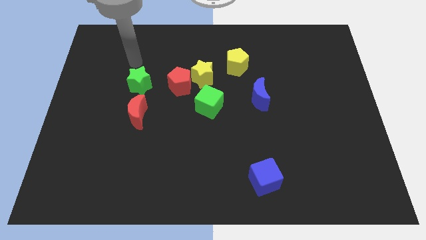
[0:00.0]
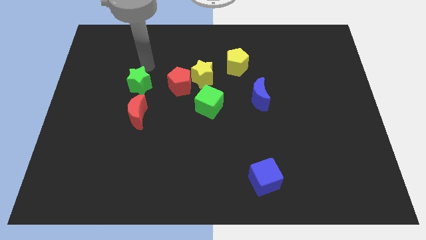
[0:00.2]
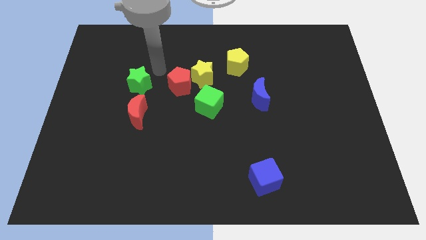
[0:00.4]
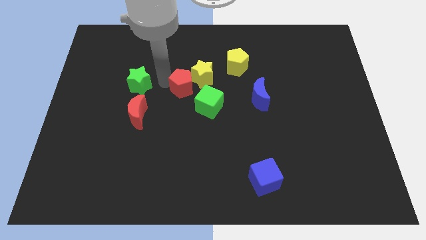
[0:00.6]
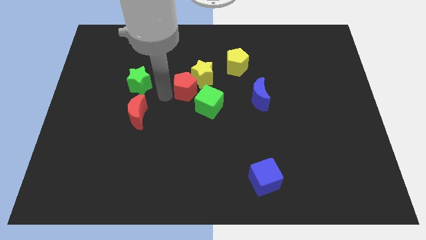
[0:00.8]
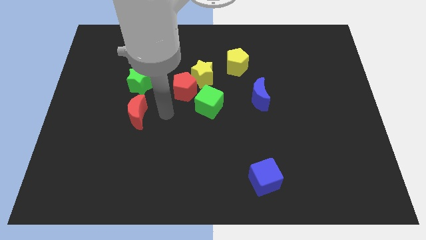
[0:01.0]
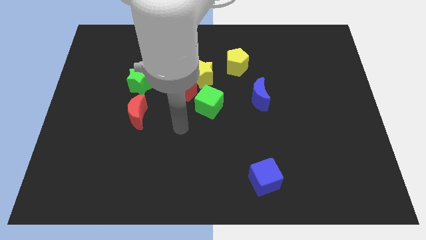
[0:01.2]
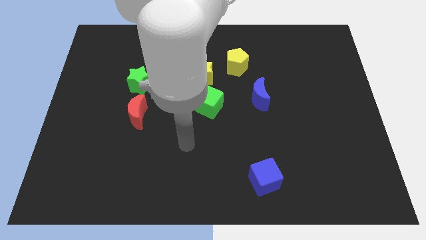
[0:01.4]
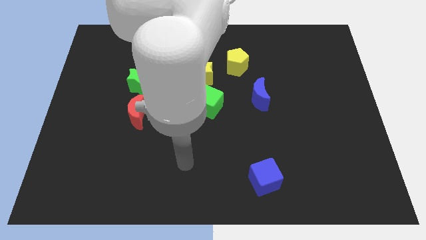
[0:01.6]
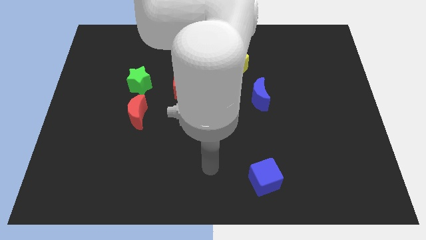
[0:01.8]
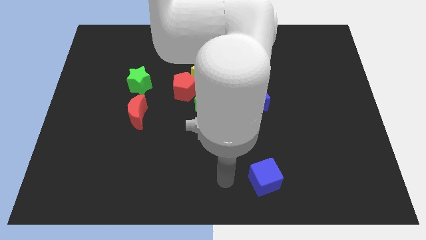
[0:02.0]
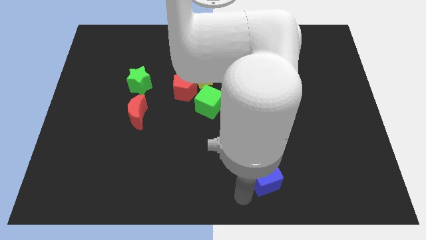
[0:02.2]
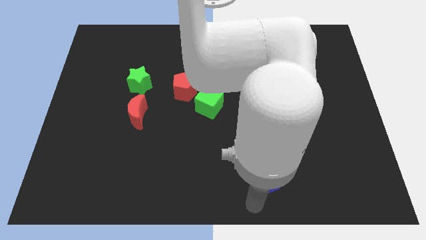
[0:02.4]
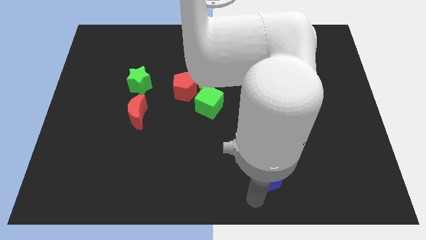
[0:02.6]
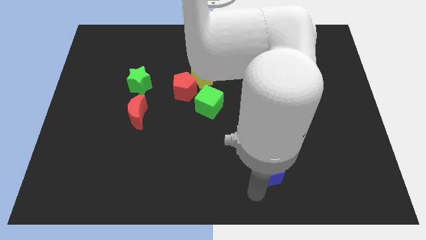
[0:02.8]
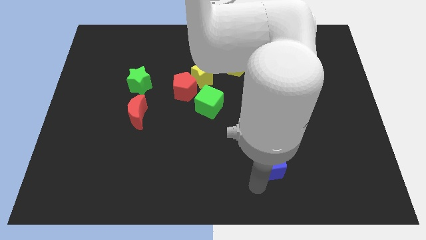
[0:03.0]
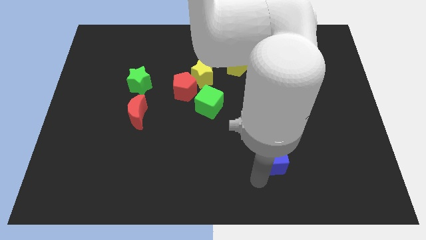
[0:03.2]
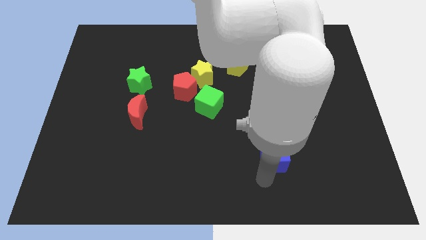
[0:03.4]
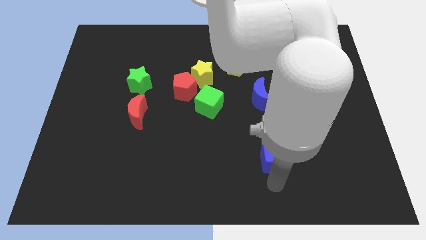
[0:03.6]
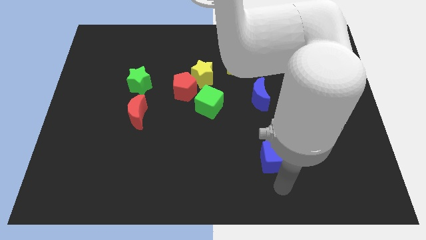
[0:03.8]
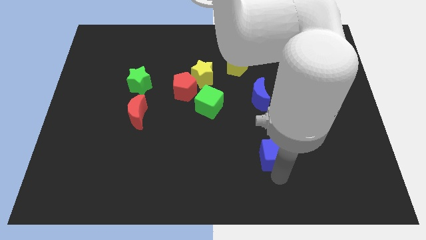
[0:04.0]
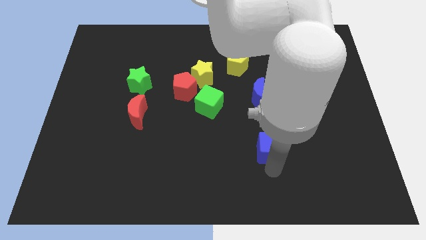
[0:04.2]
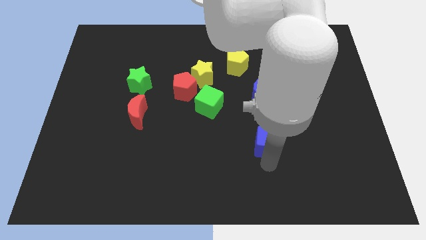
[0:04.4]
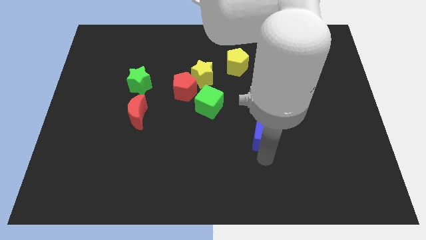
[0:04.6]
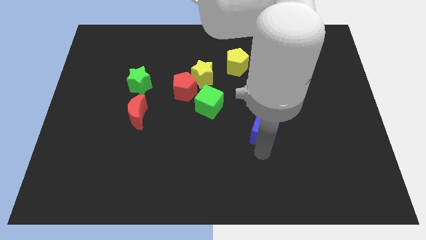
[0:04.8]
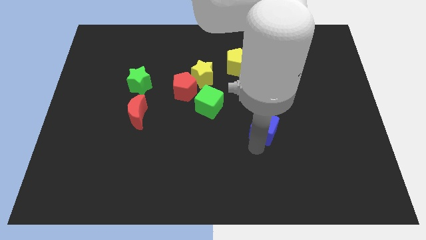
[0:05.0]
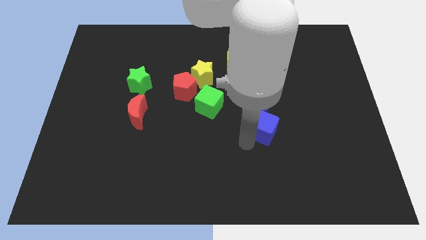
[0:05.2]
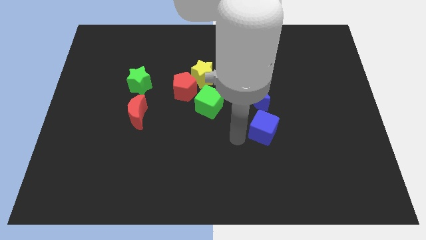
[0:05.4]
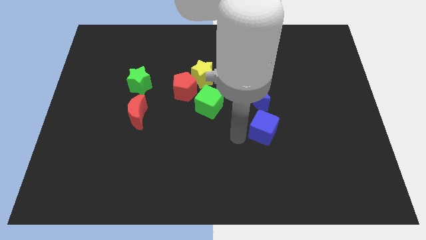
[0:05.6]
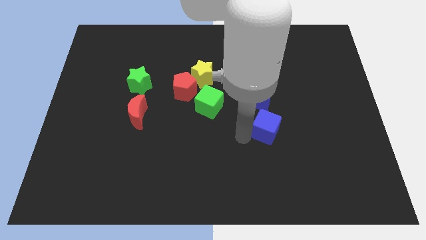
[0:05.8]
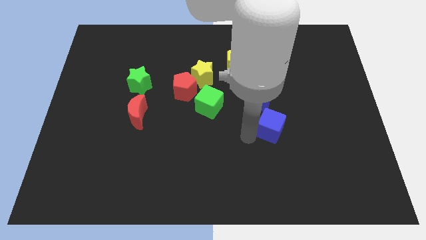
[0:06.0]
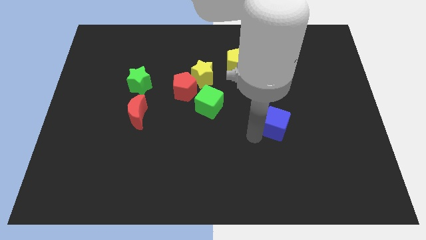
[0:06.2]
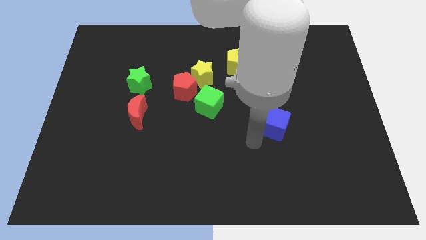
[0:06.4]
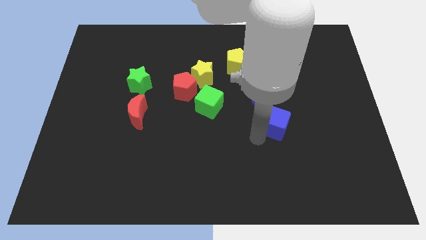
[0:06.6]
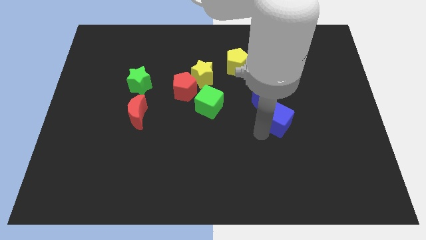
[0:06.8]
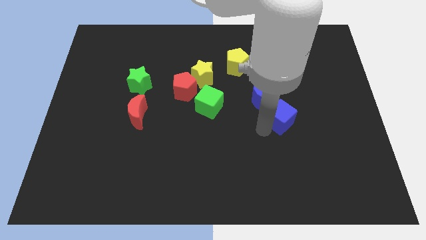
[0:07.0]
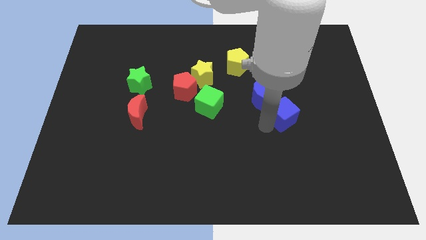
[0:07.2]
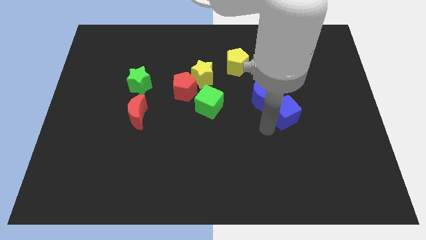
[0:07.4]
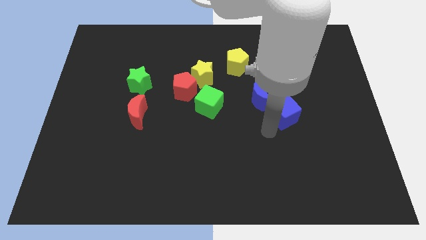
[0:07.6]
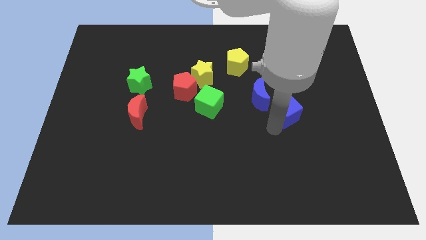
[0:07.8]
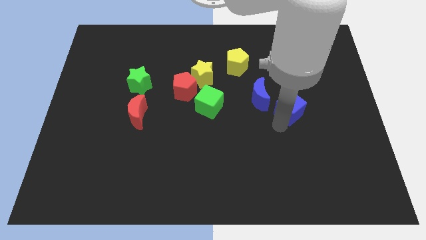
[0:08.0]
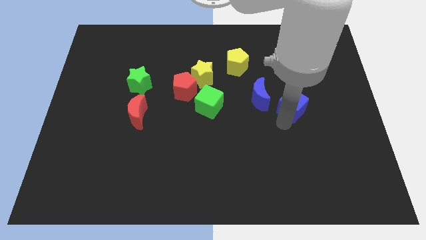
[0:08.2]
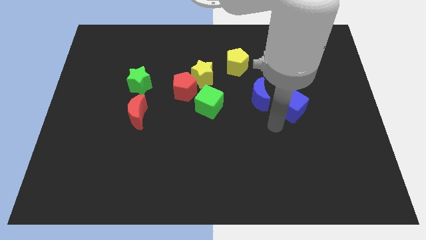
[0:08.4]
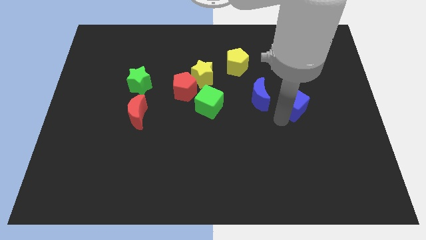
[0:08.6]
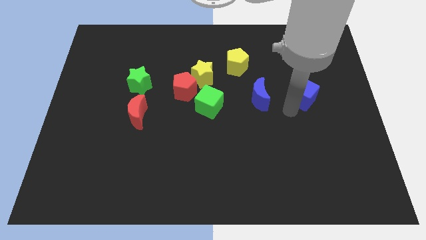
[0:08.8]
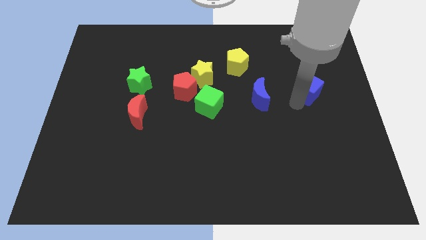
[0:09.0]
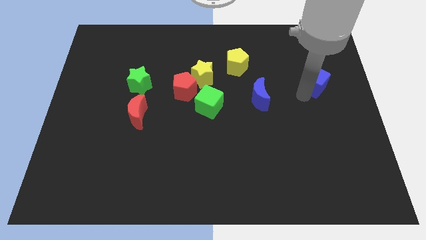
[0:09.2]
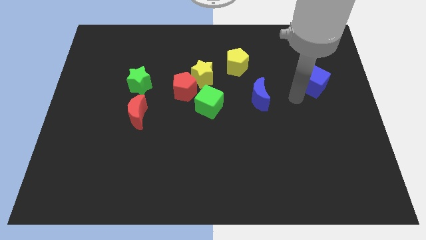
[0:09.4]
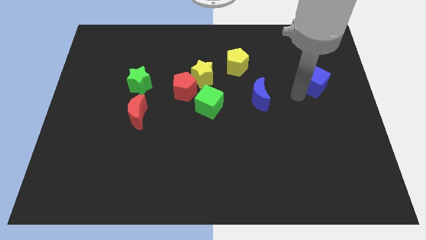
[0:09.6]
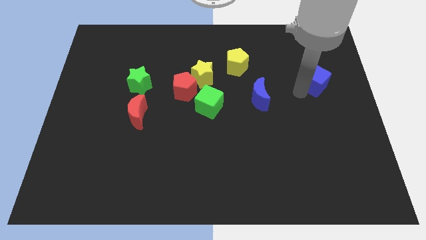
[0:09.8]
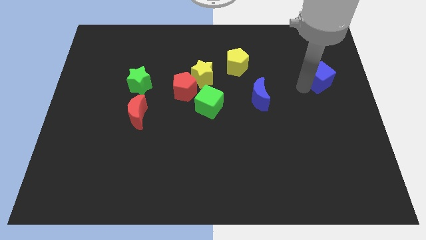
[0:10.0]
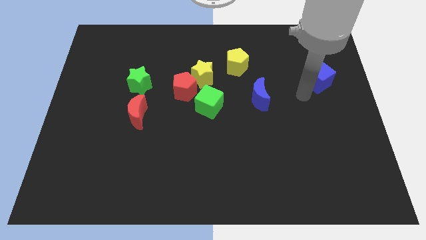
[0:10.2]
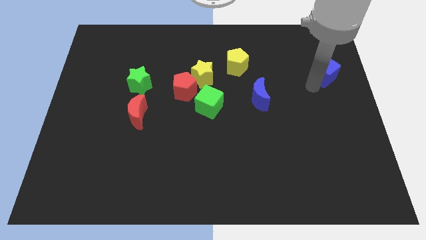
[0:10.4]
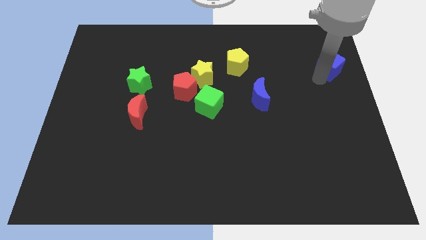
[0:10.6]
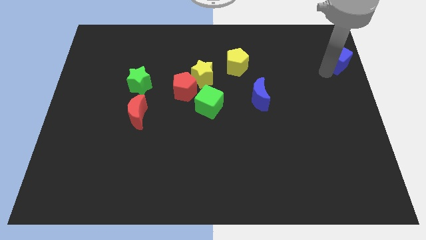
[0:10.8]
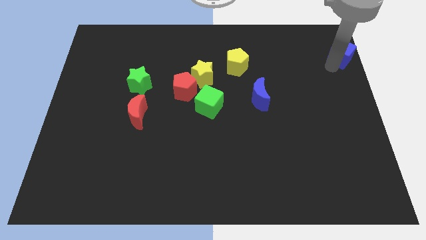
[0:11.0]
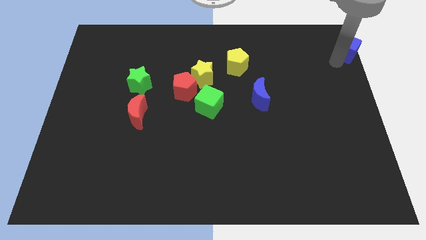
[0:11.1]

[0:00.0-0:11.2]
push the blue cube to the top right corner

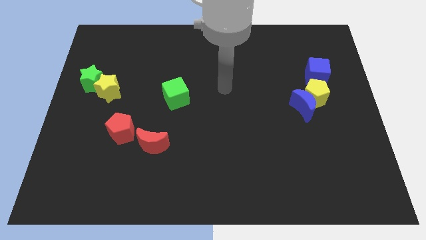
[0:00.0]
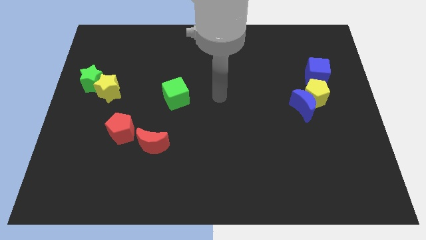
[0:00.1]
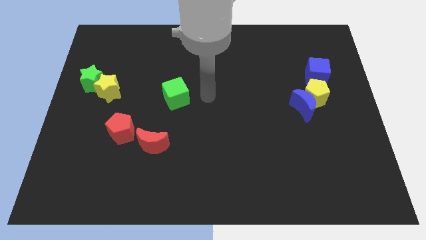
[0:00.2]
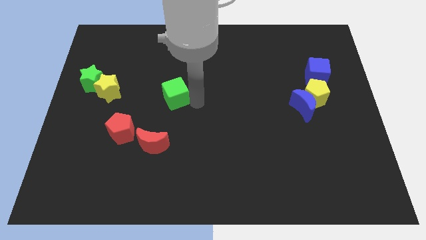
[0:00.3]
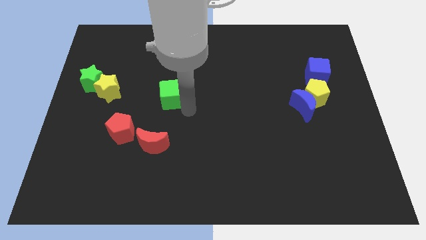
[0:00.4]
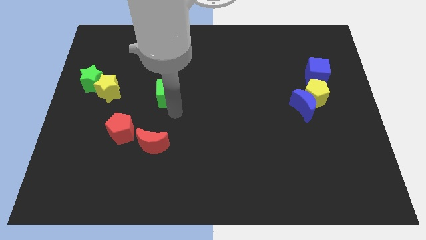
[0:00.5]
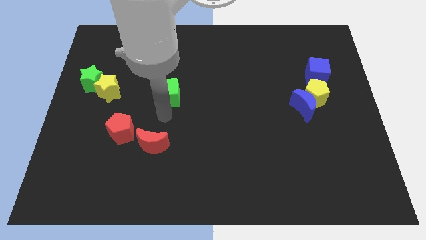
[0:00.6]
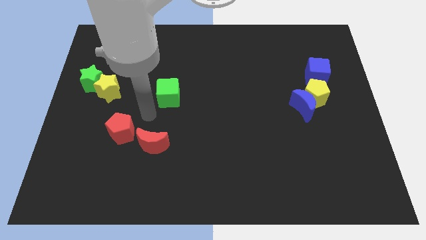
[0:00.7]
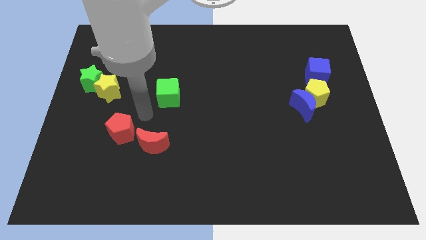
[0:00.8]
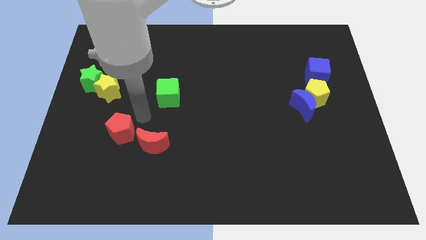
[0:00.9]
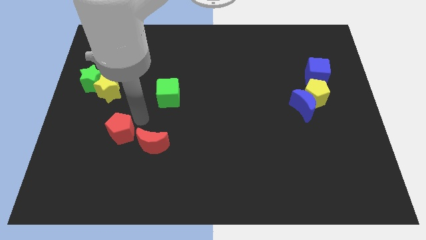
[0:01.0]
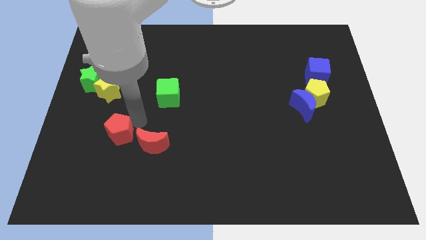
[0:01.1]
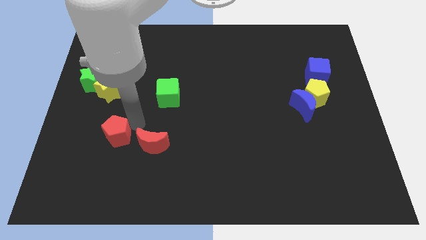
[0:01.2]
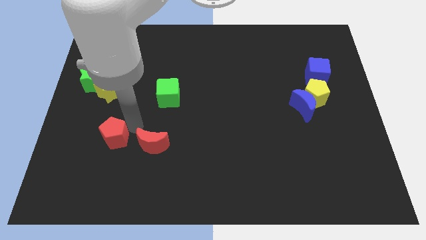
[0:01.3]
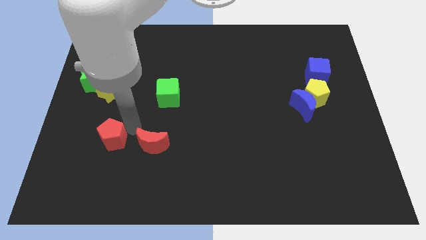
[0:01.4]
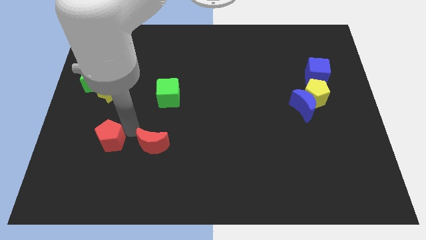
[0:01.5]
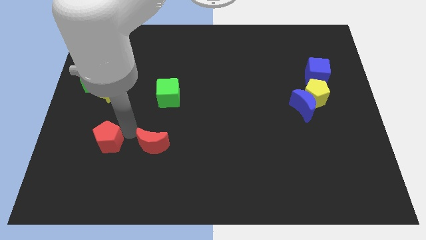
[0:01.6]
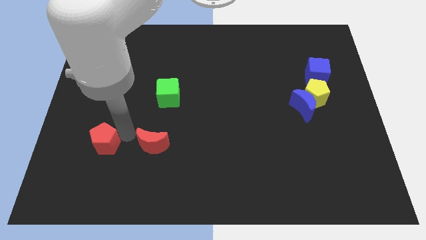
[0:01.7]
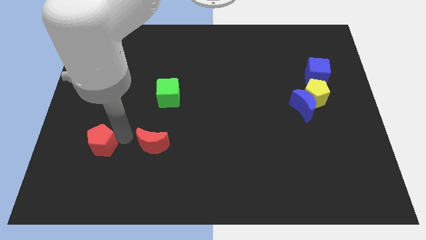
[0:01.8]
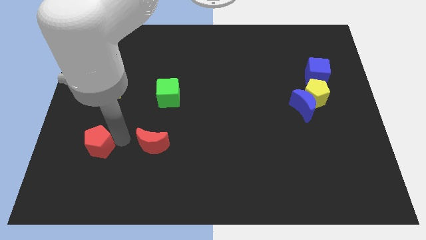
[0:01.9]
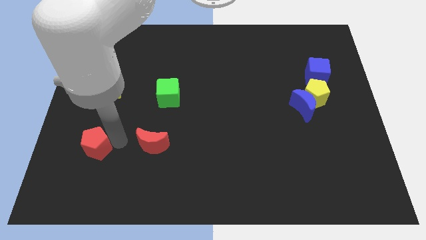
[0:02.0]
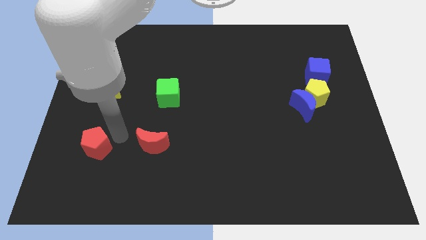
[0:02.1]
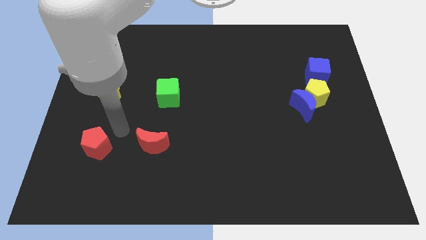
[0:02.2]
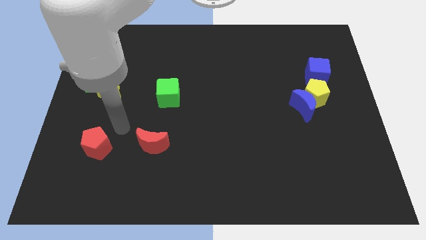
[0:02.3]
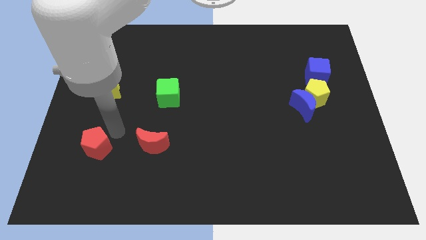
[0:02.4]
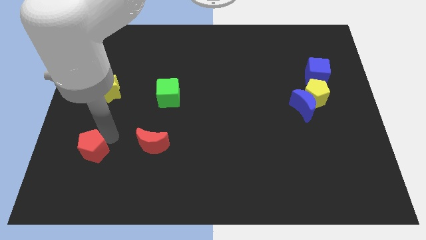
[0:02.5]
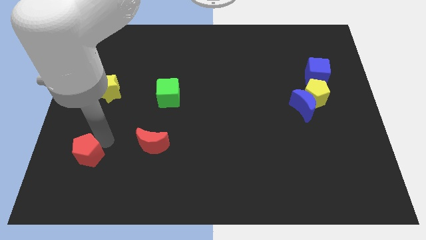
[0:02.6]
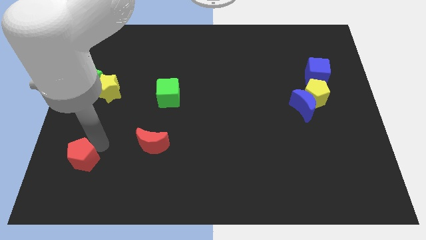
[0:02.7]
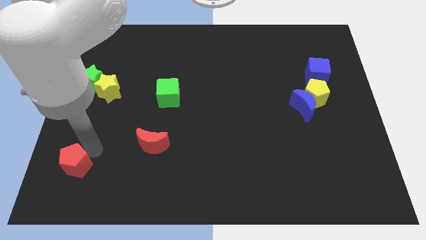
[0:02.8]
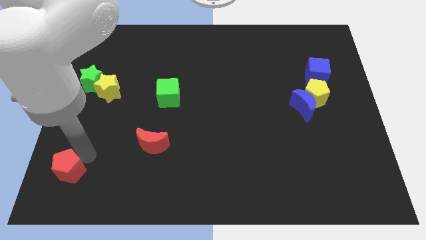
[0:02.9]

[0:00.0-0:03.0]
put the red pentagon to the bottom left of the board
